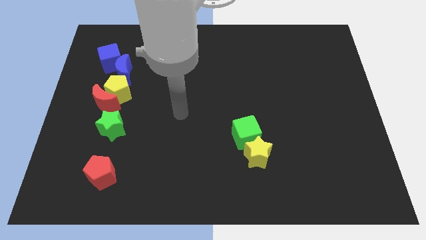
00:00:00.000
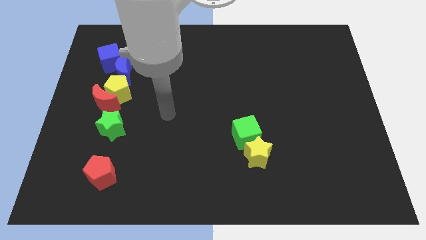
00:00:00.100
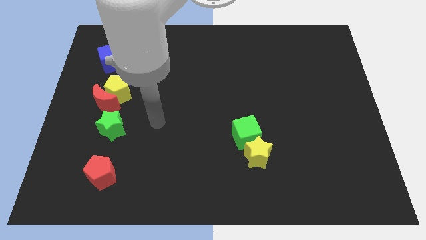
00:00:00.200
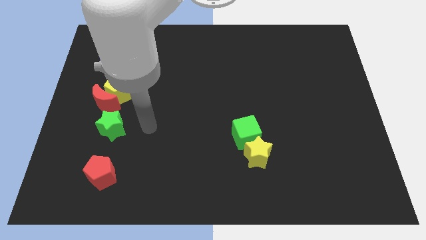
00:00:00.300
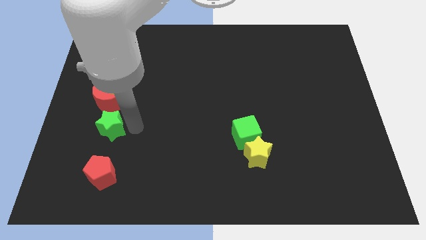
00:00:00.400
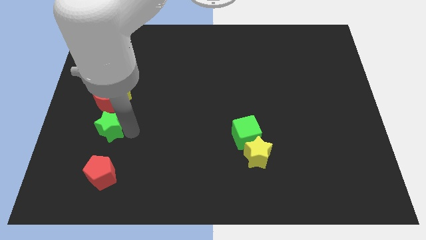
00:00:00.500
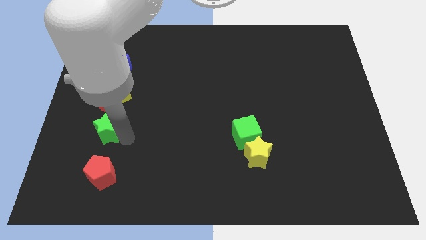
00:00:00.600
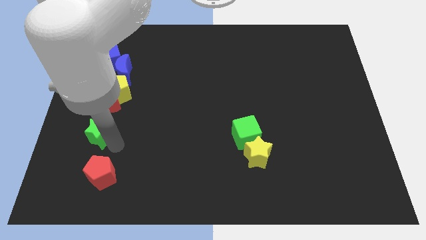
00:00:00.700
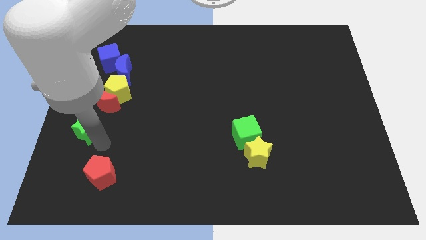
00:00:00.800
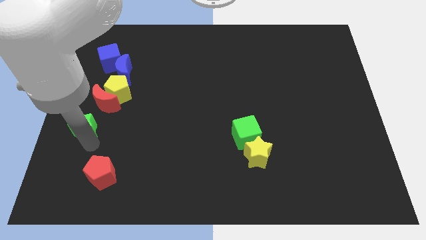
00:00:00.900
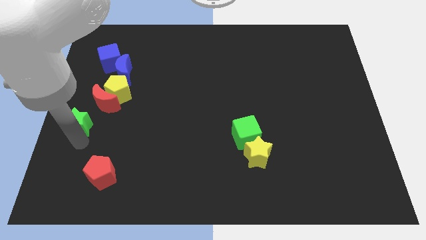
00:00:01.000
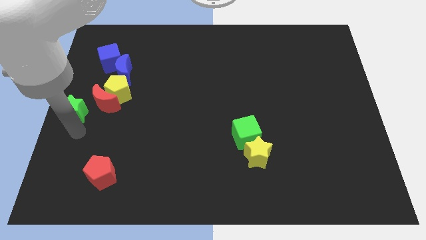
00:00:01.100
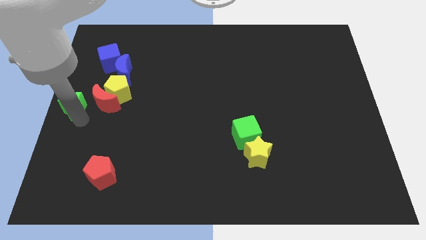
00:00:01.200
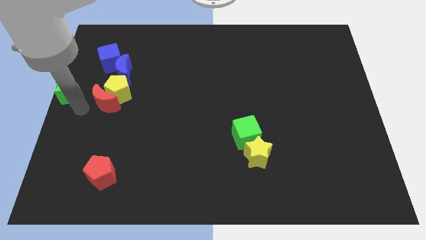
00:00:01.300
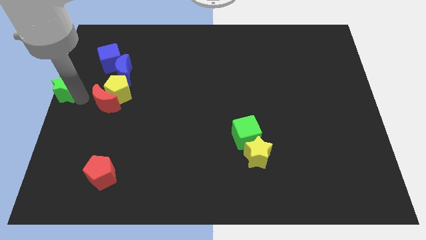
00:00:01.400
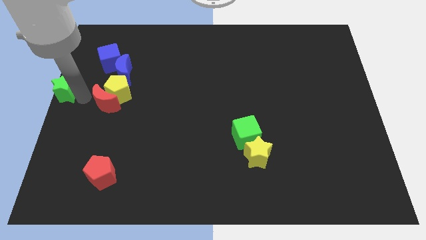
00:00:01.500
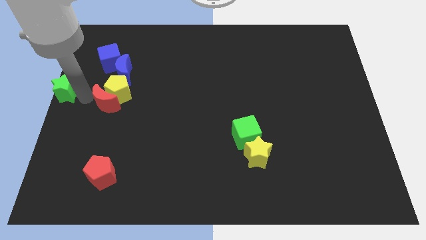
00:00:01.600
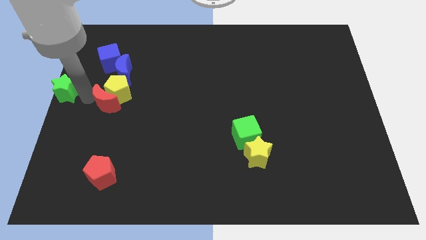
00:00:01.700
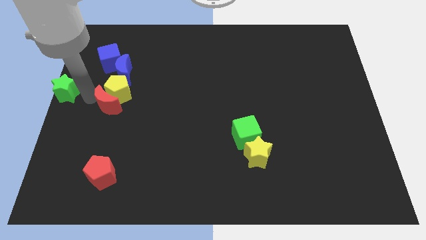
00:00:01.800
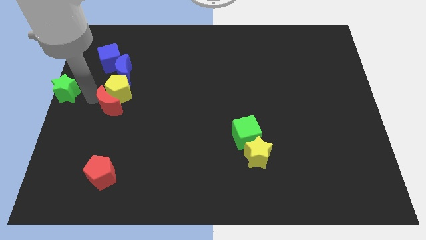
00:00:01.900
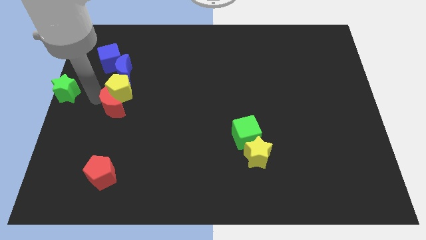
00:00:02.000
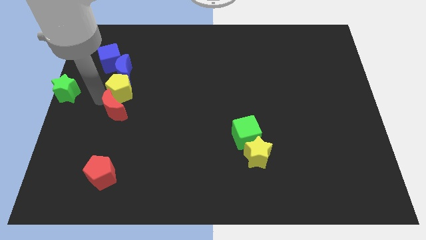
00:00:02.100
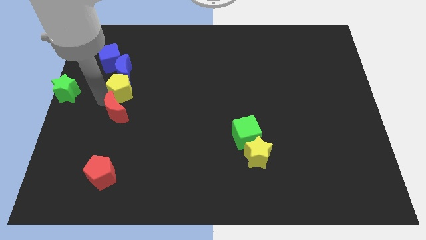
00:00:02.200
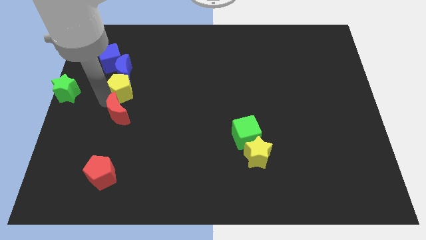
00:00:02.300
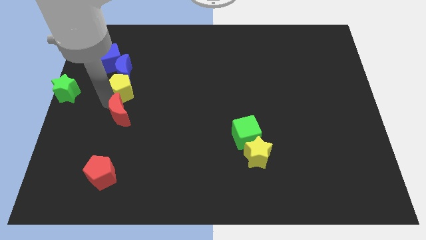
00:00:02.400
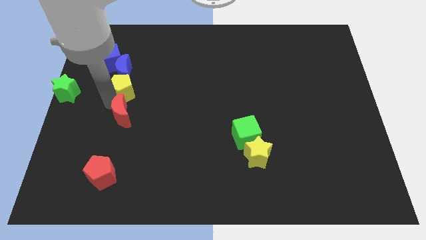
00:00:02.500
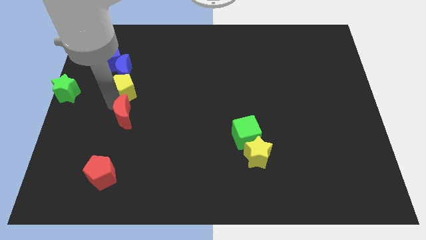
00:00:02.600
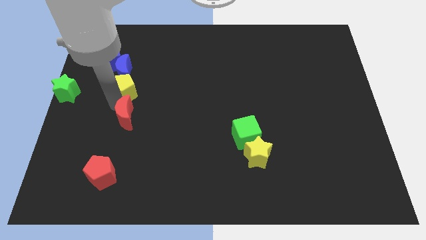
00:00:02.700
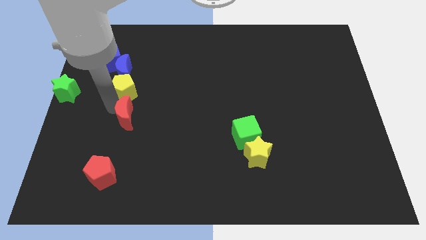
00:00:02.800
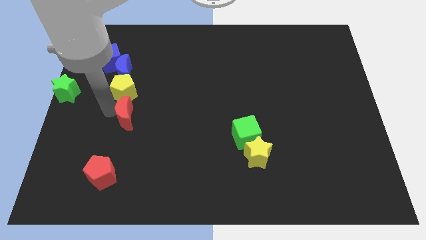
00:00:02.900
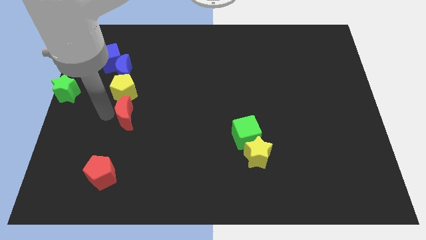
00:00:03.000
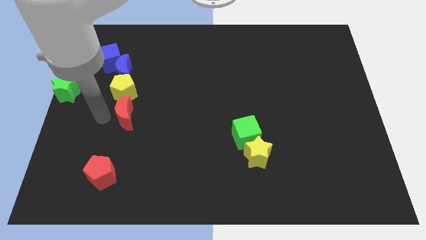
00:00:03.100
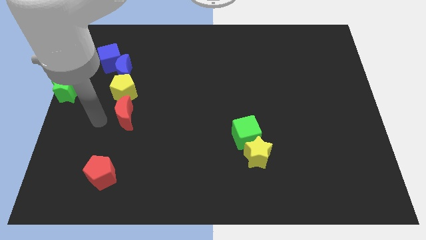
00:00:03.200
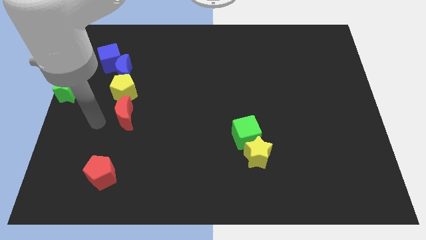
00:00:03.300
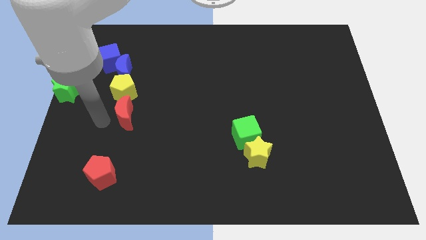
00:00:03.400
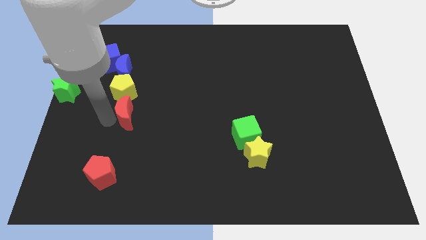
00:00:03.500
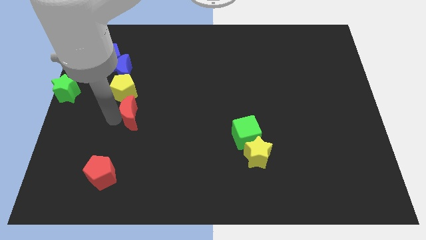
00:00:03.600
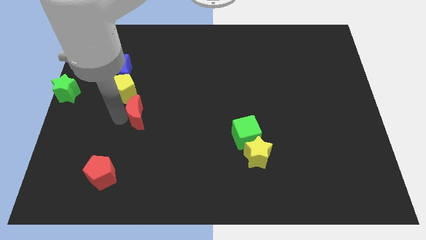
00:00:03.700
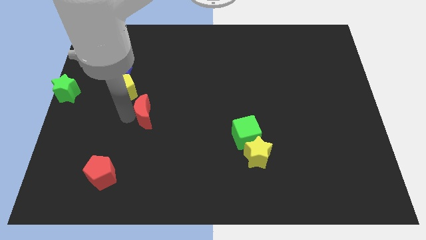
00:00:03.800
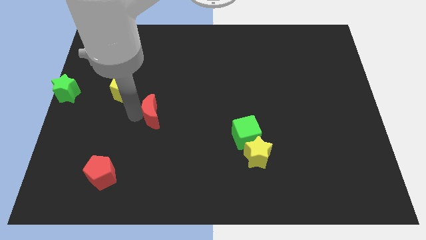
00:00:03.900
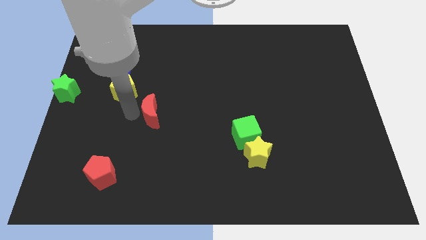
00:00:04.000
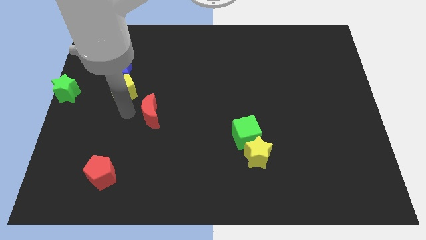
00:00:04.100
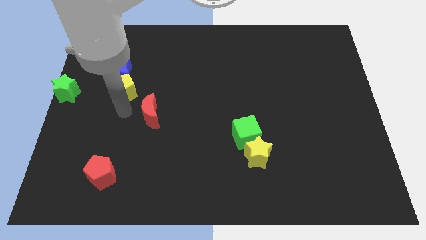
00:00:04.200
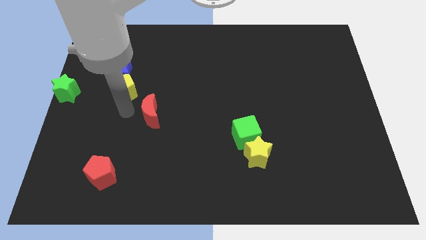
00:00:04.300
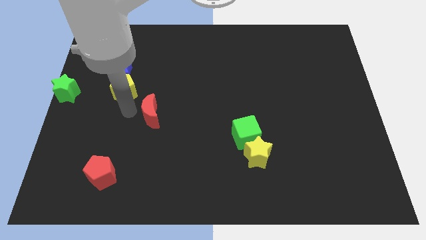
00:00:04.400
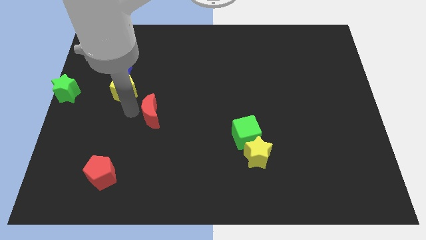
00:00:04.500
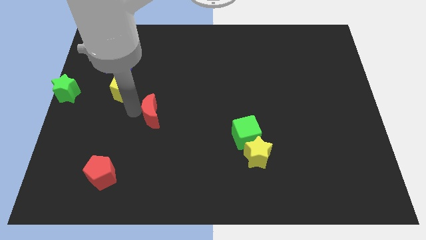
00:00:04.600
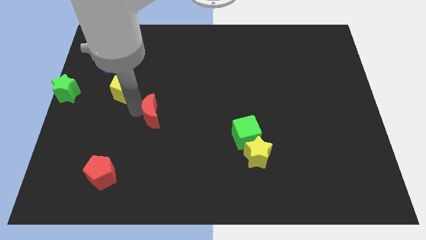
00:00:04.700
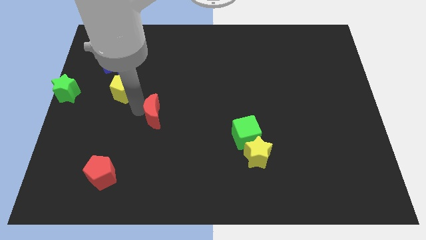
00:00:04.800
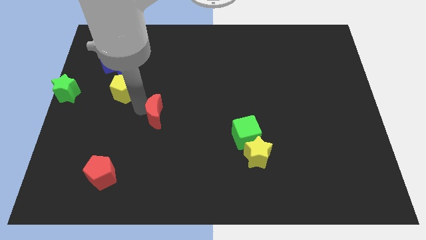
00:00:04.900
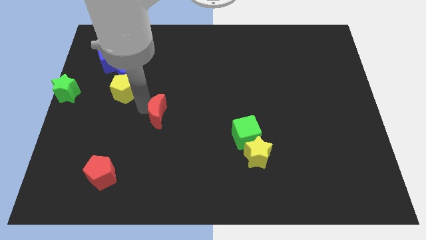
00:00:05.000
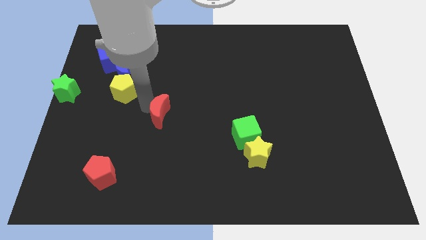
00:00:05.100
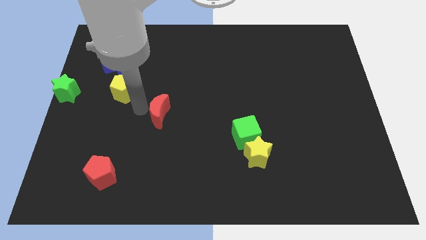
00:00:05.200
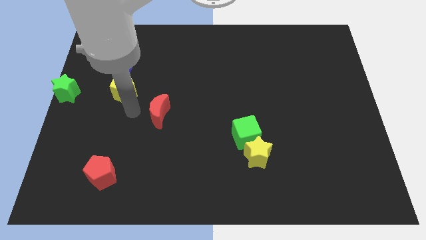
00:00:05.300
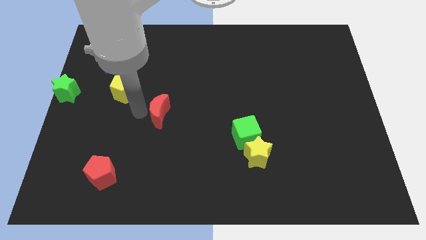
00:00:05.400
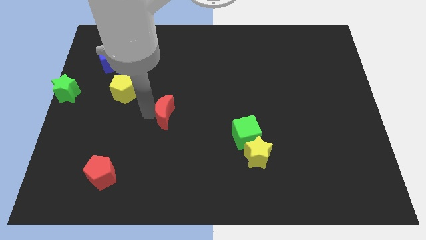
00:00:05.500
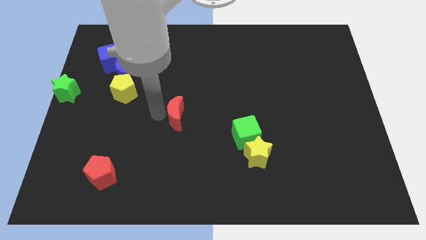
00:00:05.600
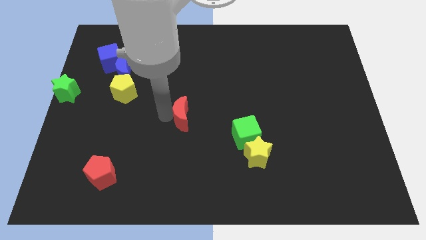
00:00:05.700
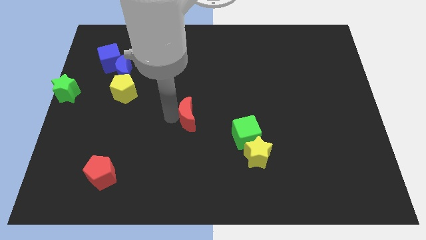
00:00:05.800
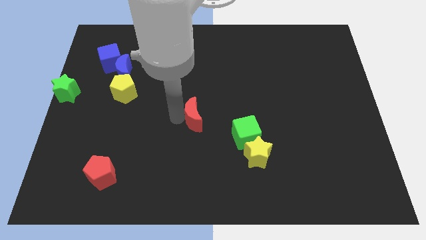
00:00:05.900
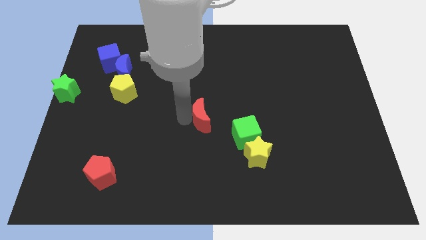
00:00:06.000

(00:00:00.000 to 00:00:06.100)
push the red moon to the top left of the green cube

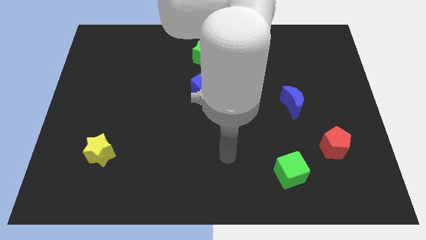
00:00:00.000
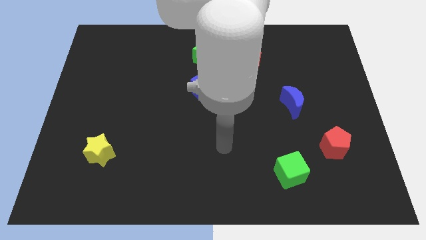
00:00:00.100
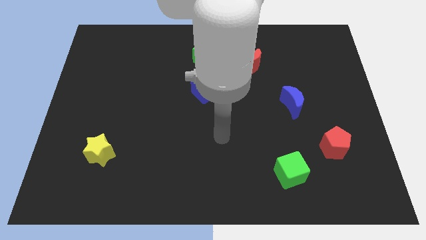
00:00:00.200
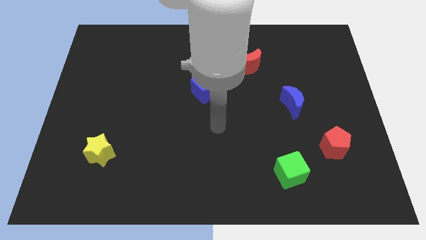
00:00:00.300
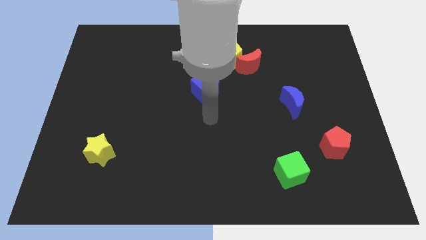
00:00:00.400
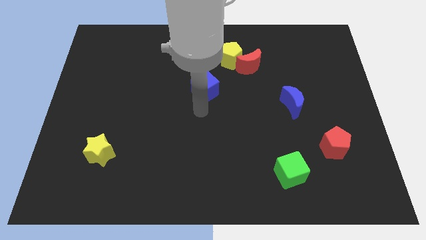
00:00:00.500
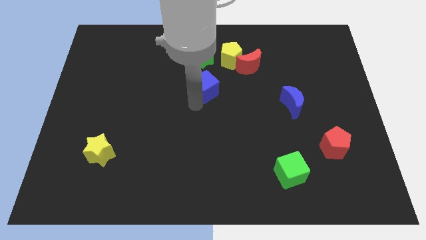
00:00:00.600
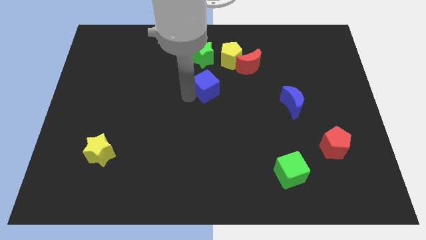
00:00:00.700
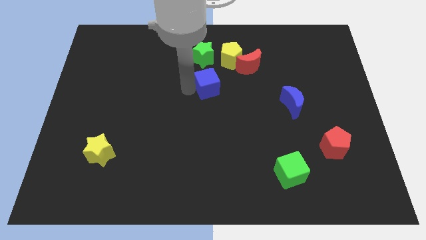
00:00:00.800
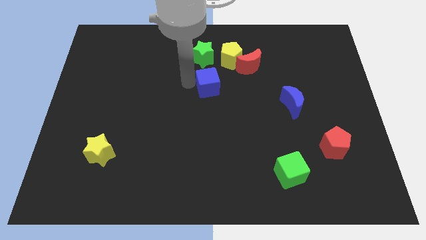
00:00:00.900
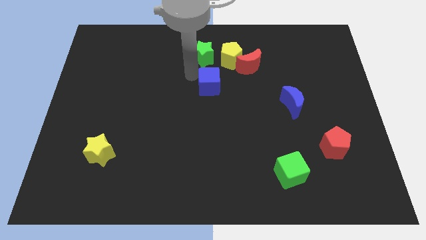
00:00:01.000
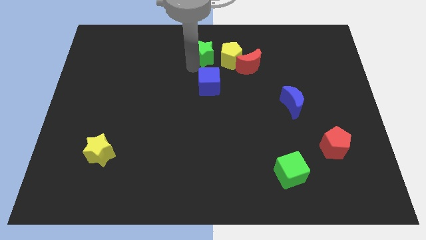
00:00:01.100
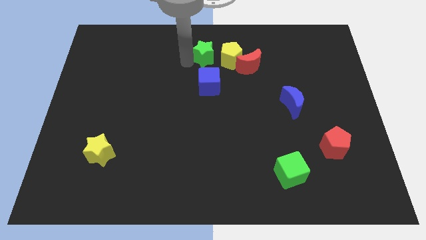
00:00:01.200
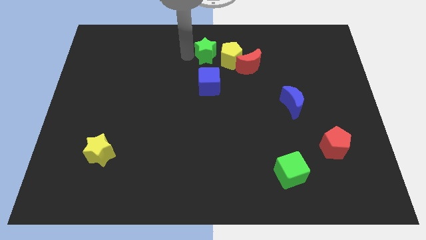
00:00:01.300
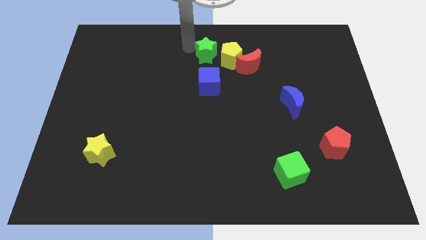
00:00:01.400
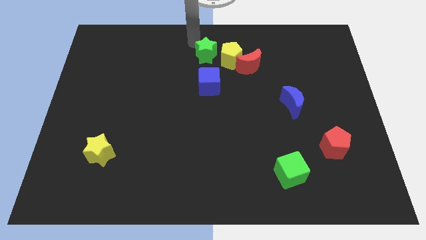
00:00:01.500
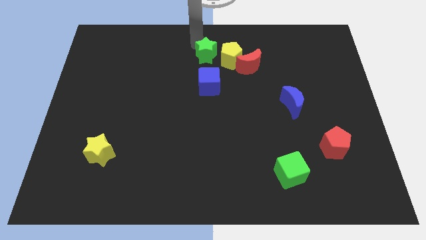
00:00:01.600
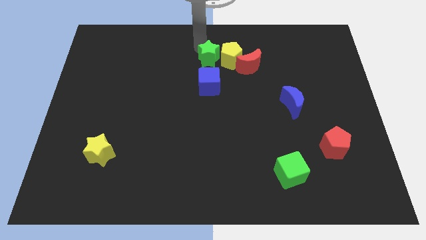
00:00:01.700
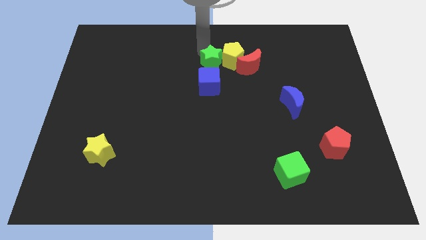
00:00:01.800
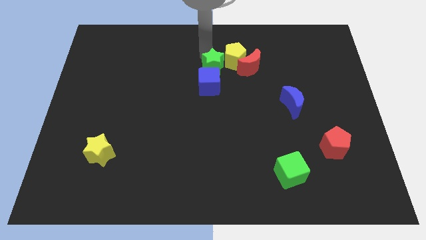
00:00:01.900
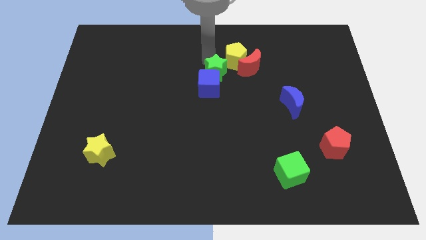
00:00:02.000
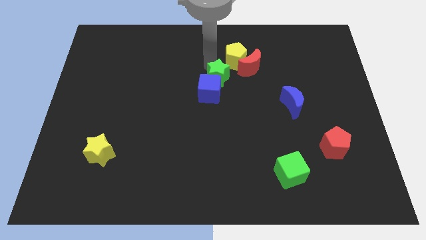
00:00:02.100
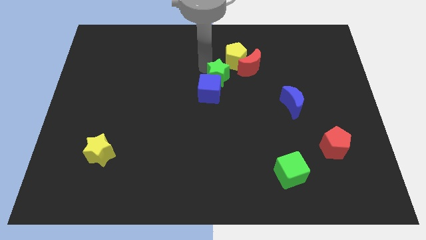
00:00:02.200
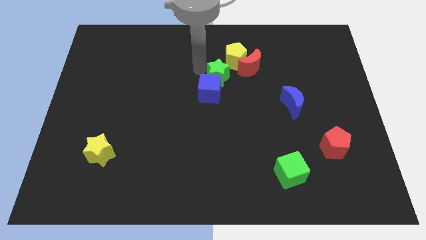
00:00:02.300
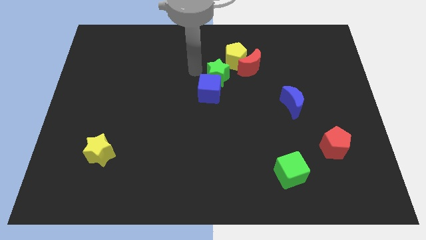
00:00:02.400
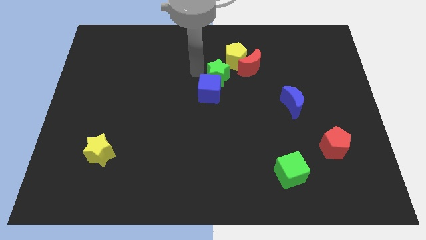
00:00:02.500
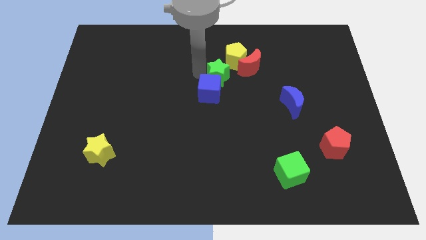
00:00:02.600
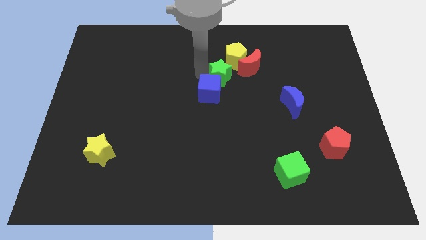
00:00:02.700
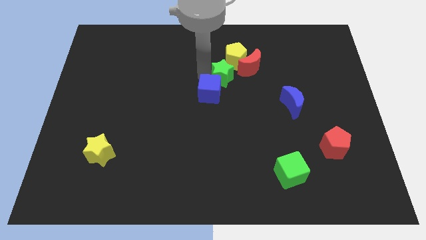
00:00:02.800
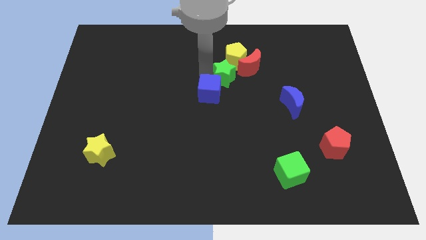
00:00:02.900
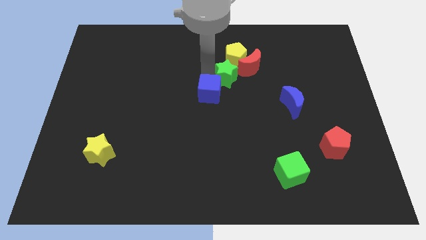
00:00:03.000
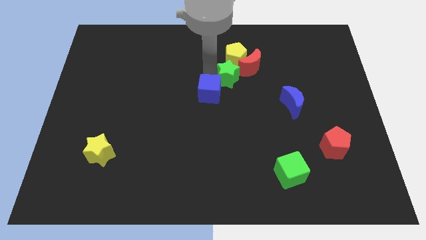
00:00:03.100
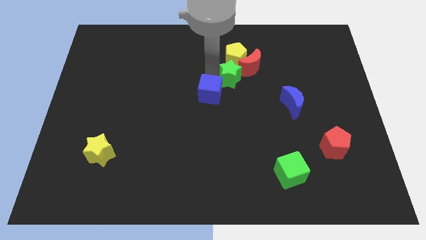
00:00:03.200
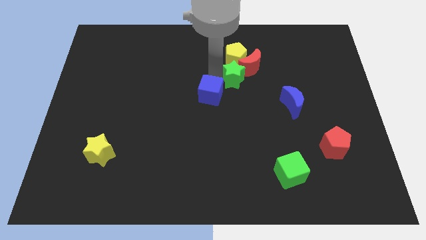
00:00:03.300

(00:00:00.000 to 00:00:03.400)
slide the green star below the red moon
